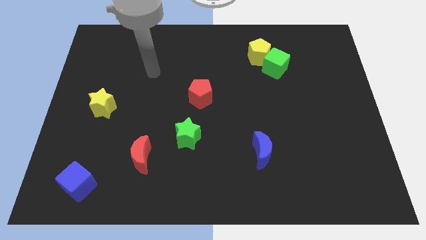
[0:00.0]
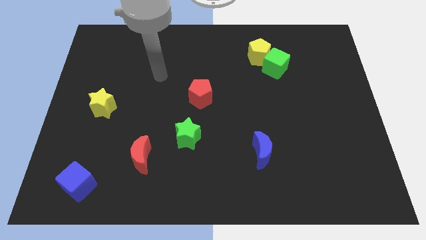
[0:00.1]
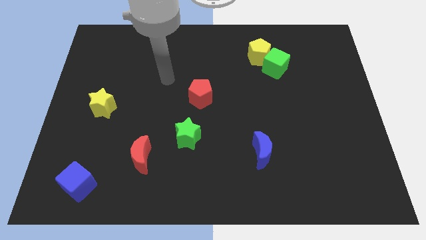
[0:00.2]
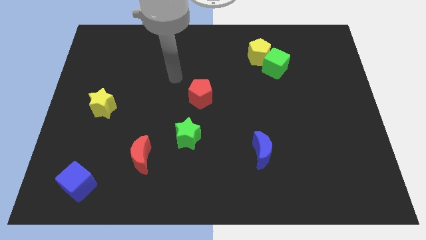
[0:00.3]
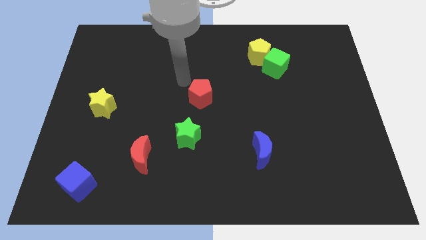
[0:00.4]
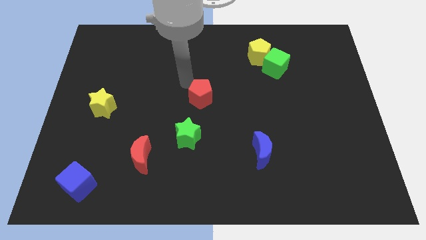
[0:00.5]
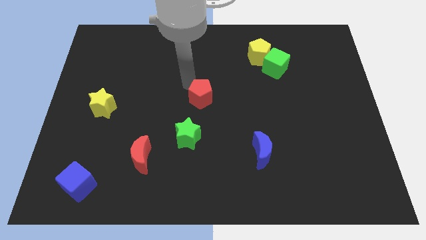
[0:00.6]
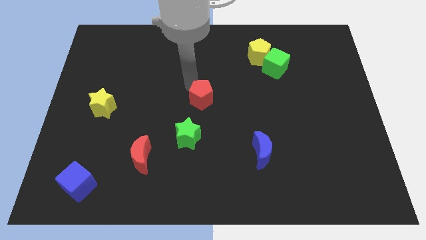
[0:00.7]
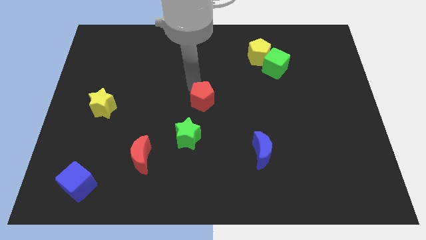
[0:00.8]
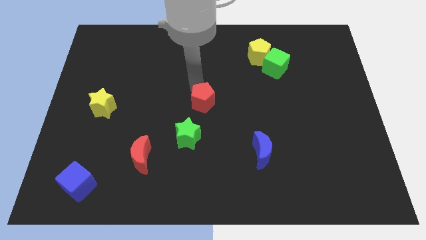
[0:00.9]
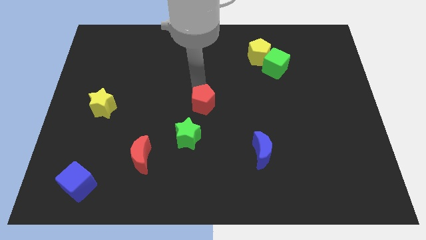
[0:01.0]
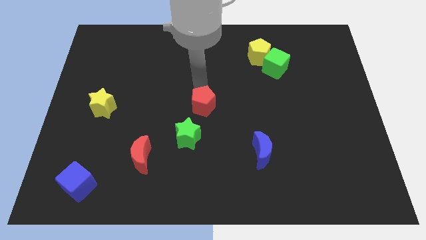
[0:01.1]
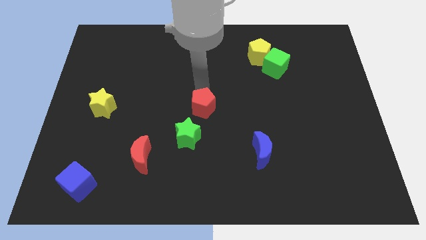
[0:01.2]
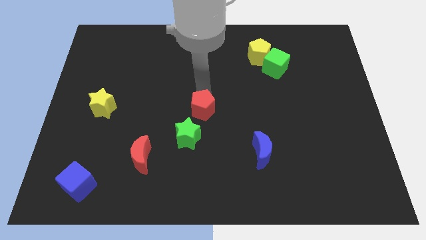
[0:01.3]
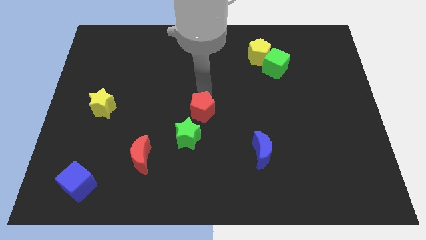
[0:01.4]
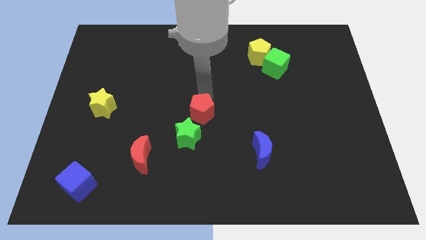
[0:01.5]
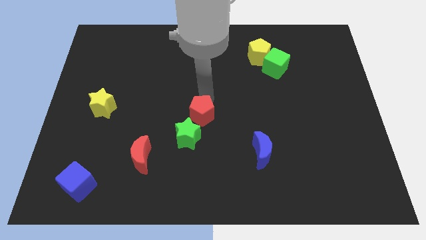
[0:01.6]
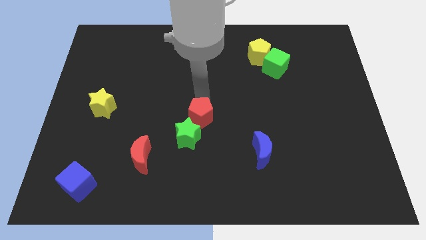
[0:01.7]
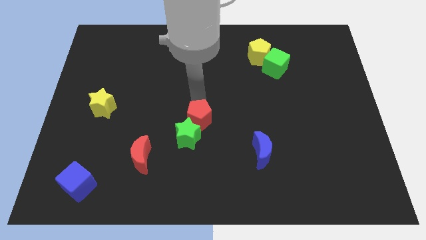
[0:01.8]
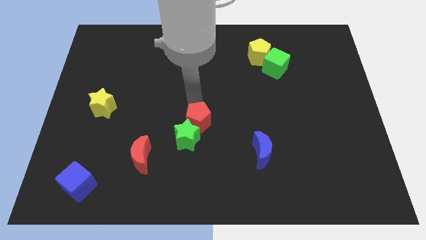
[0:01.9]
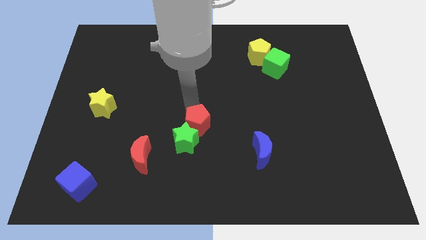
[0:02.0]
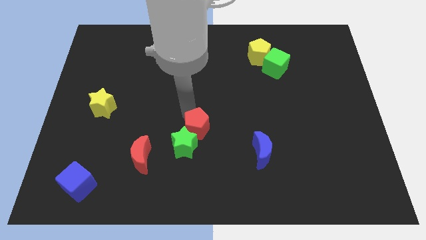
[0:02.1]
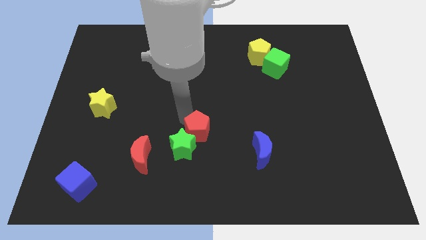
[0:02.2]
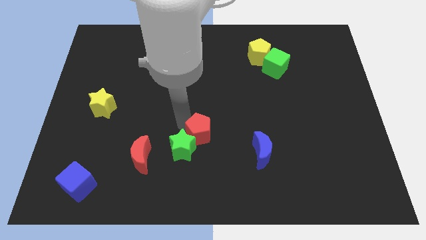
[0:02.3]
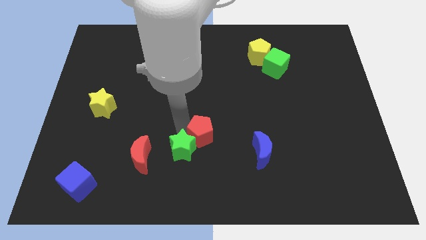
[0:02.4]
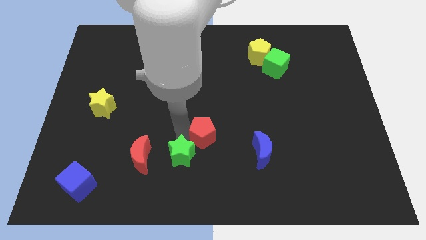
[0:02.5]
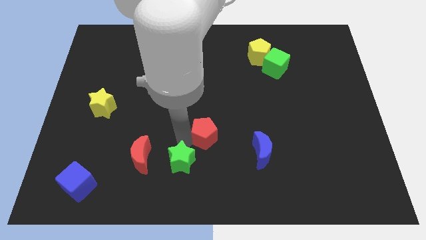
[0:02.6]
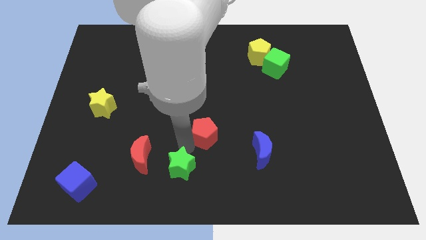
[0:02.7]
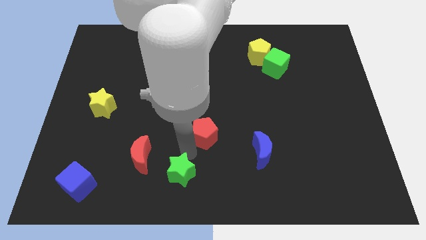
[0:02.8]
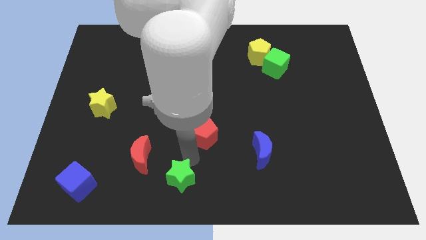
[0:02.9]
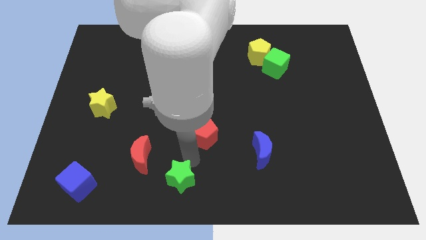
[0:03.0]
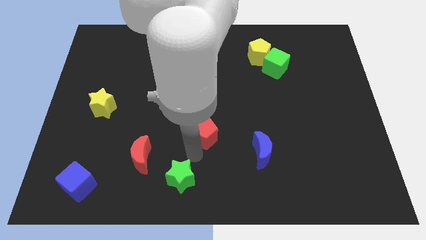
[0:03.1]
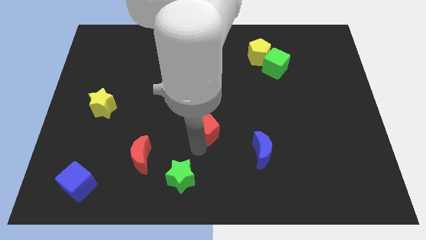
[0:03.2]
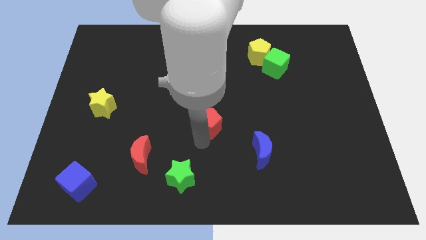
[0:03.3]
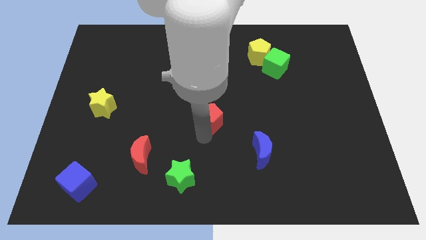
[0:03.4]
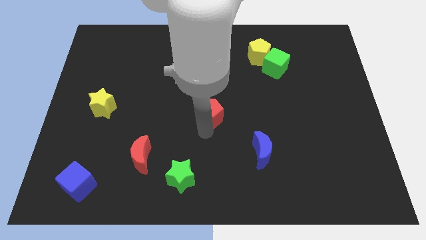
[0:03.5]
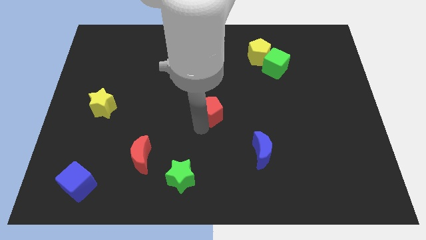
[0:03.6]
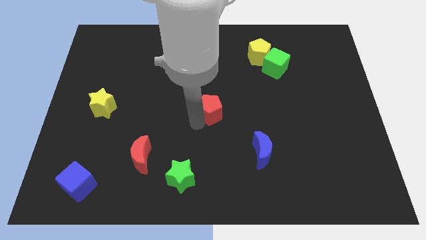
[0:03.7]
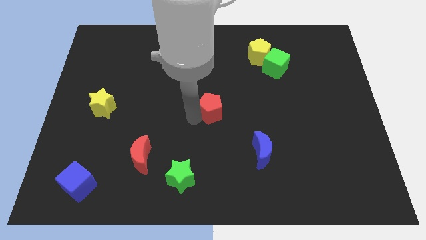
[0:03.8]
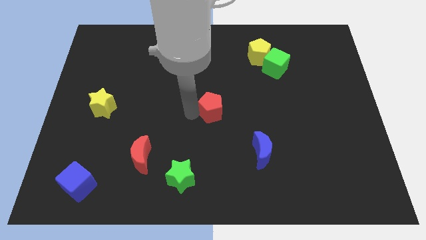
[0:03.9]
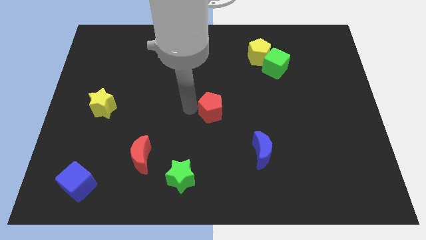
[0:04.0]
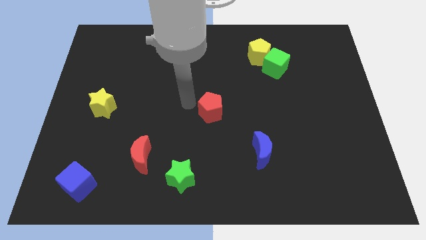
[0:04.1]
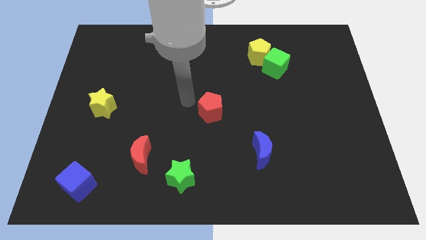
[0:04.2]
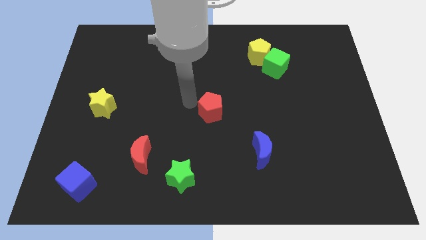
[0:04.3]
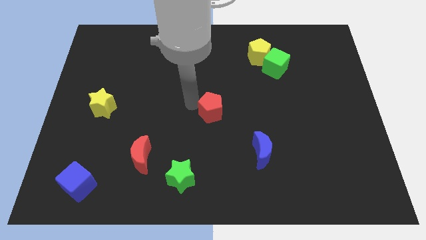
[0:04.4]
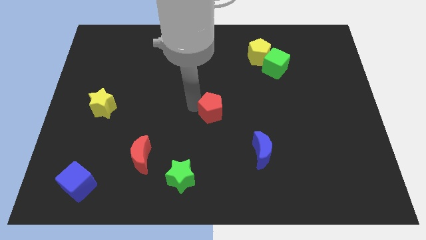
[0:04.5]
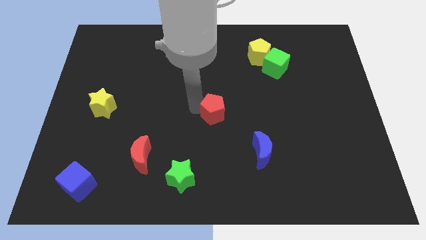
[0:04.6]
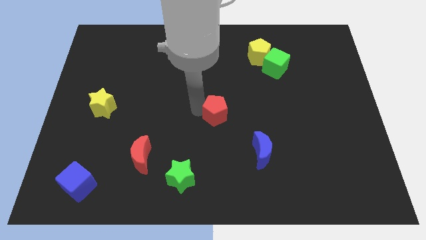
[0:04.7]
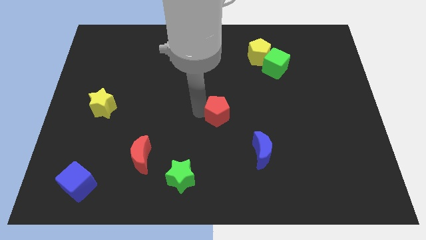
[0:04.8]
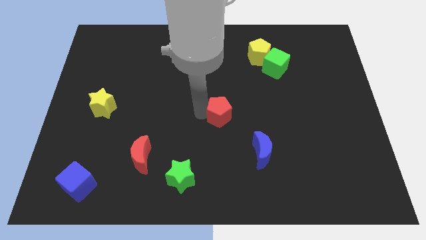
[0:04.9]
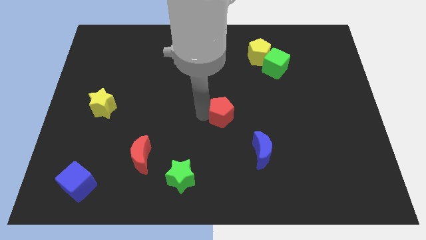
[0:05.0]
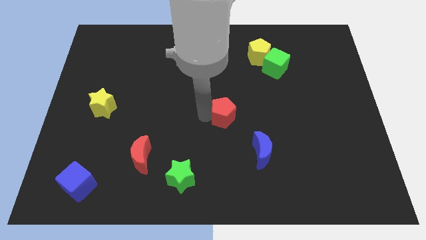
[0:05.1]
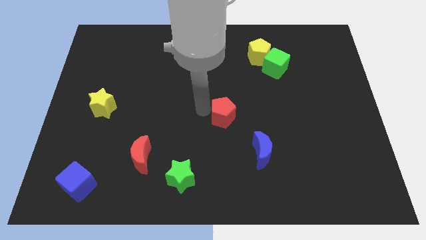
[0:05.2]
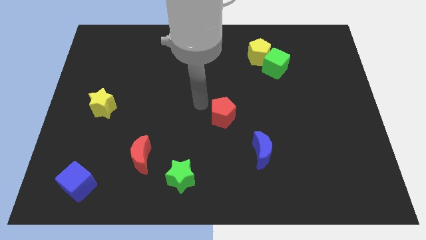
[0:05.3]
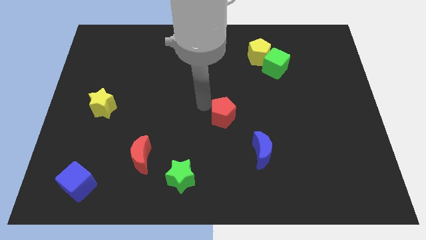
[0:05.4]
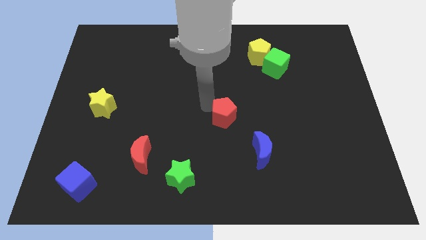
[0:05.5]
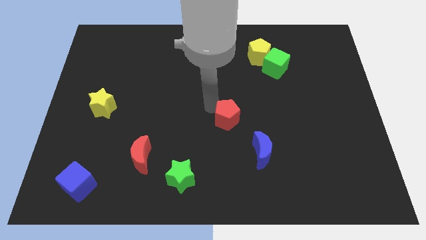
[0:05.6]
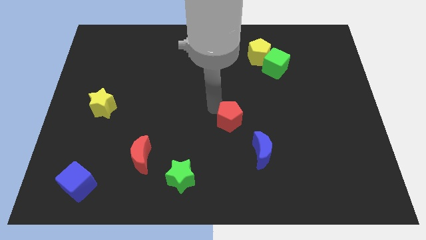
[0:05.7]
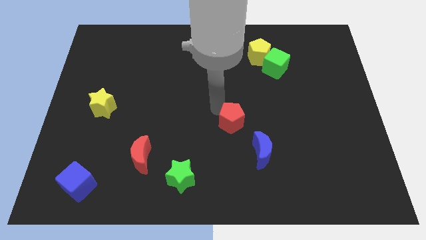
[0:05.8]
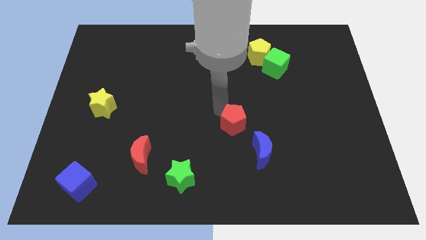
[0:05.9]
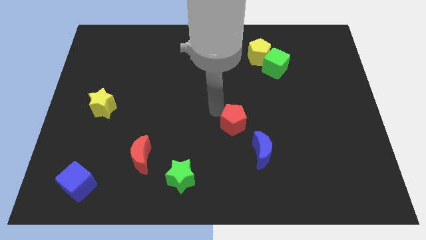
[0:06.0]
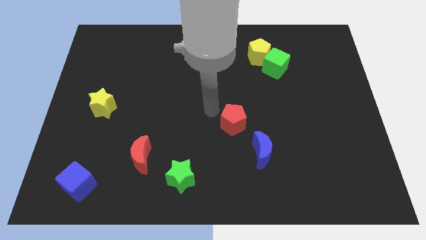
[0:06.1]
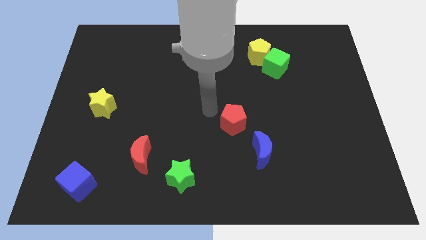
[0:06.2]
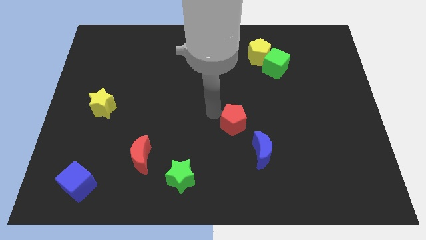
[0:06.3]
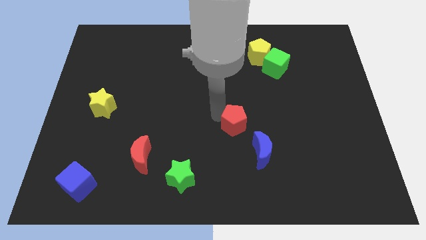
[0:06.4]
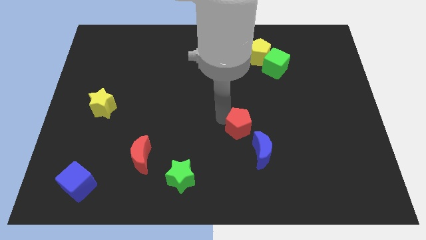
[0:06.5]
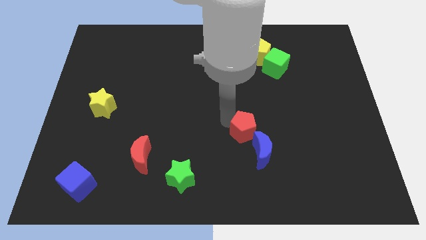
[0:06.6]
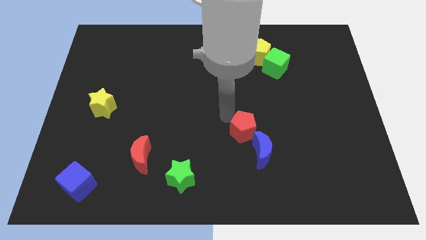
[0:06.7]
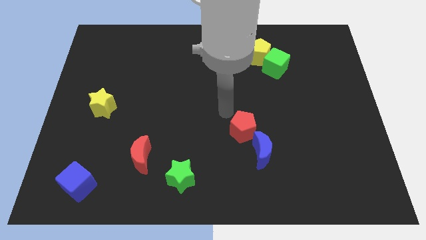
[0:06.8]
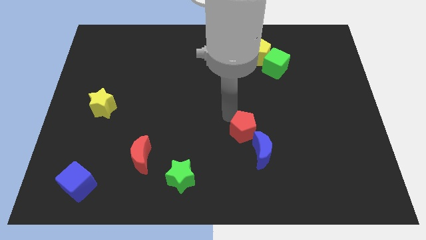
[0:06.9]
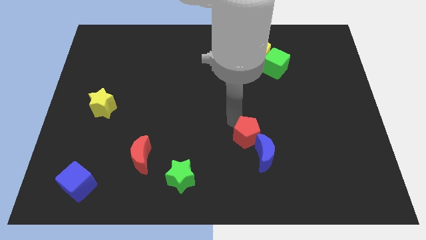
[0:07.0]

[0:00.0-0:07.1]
push the red pentagon close to the blue moon

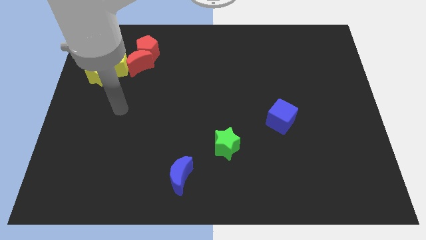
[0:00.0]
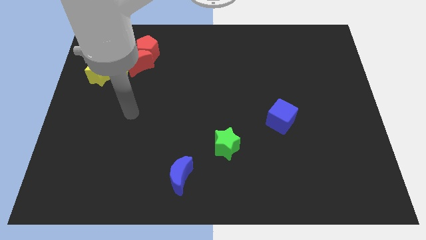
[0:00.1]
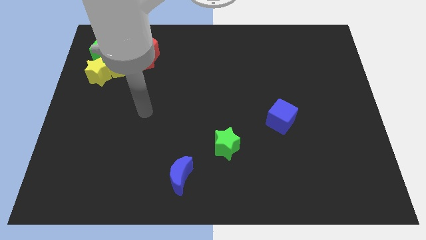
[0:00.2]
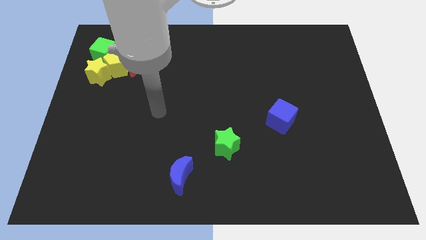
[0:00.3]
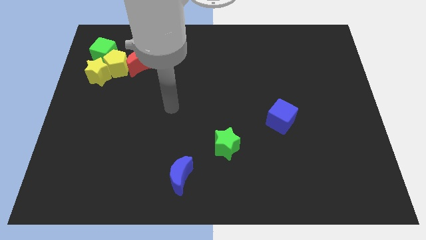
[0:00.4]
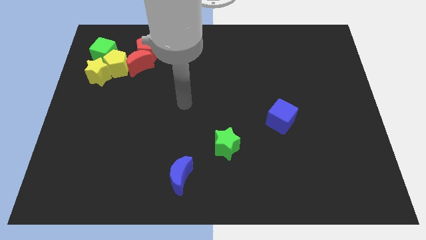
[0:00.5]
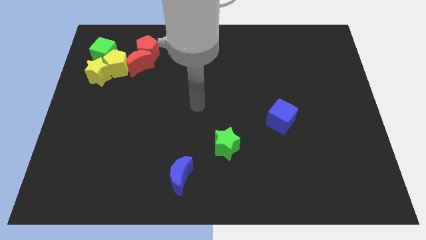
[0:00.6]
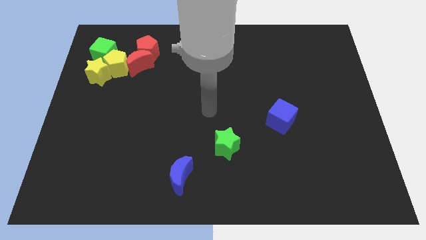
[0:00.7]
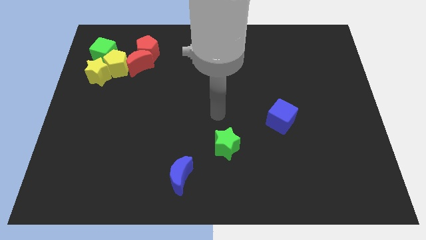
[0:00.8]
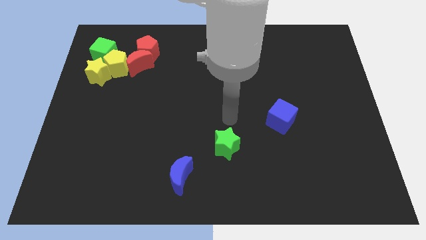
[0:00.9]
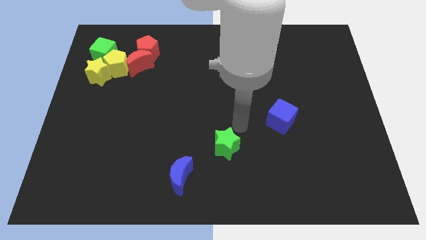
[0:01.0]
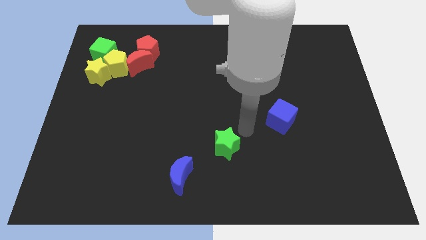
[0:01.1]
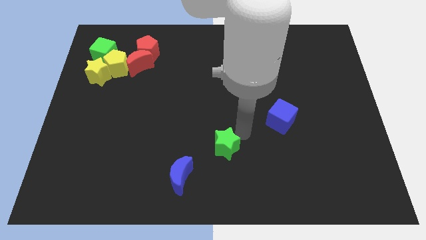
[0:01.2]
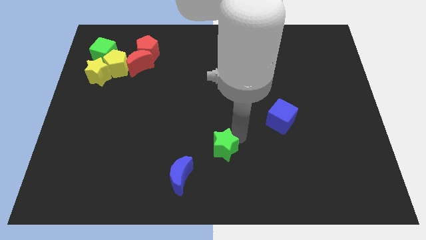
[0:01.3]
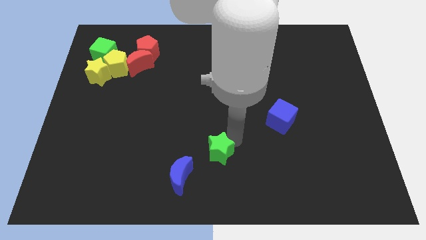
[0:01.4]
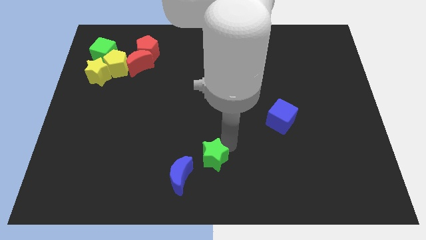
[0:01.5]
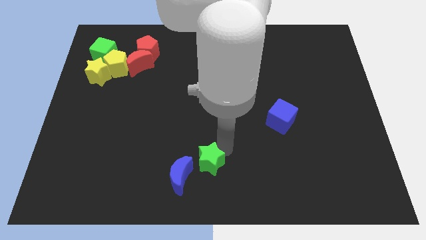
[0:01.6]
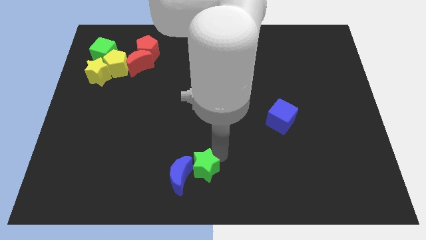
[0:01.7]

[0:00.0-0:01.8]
put the green star next to the blue moon
